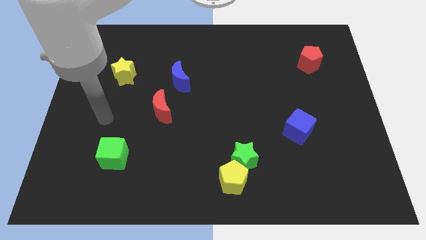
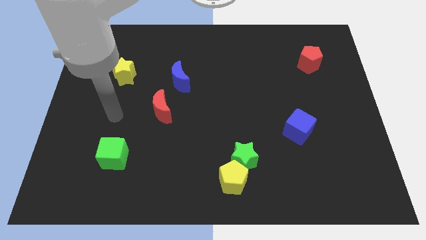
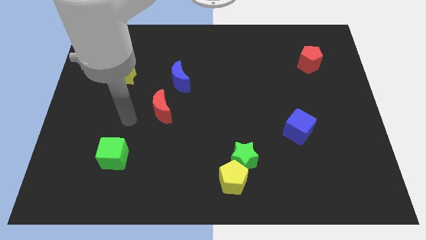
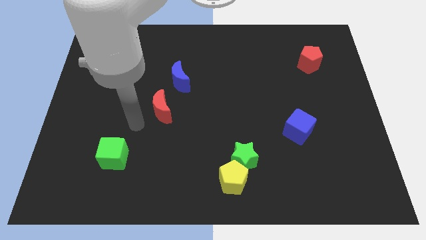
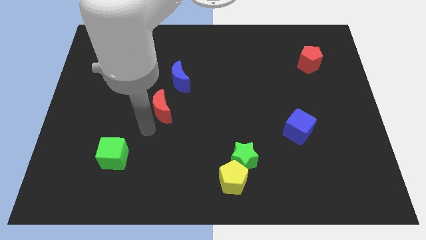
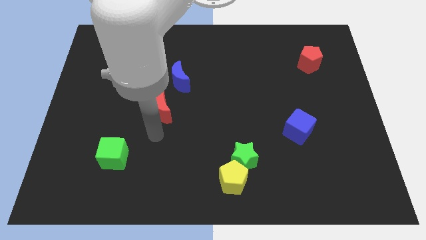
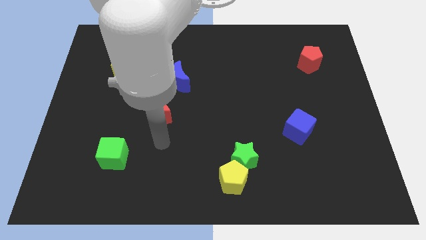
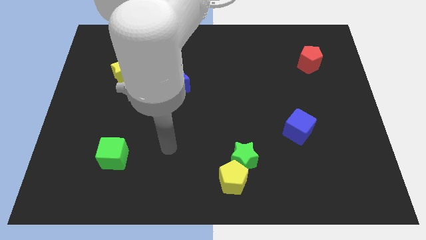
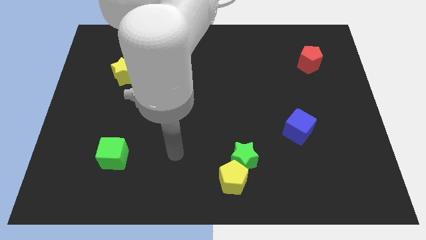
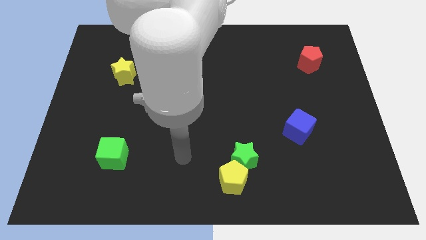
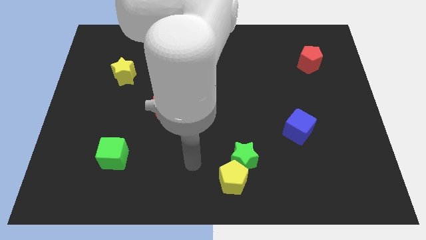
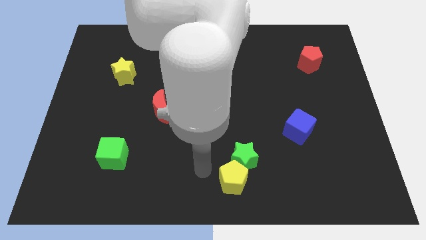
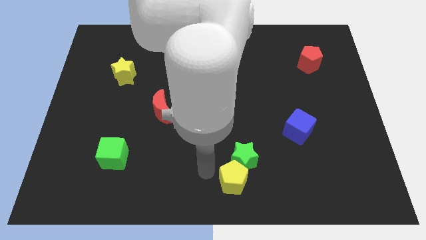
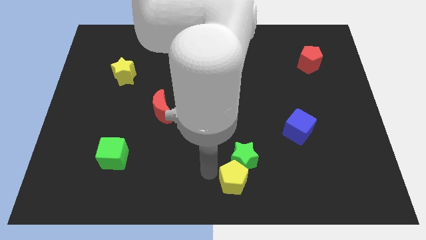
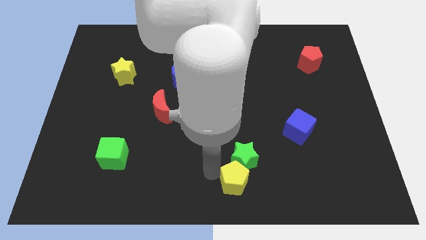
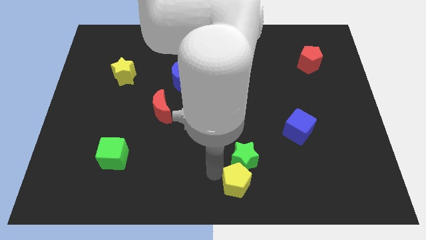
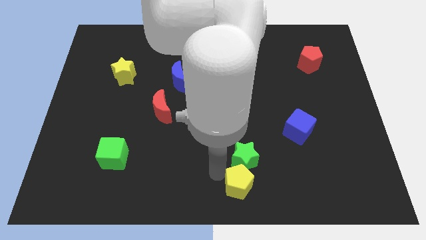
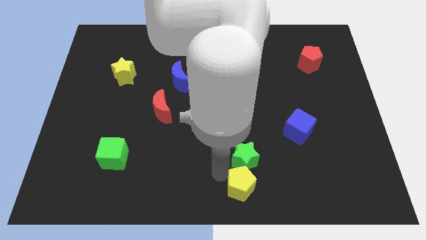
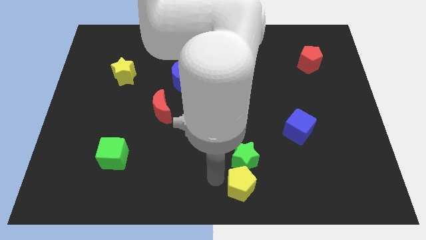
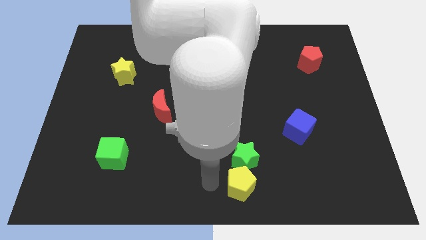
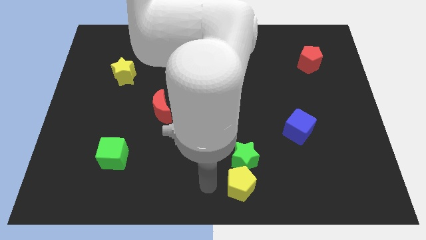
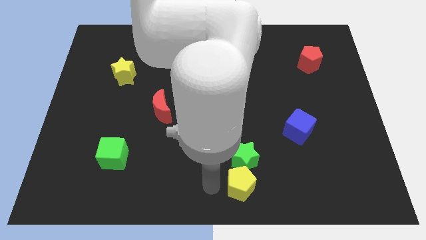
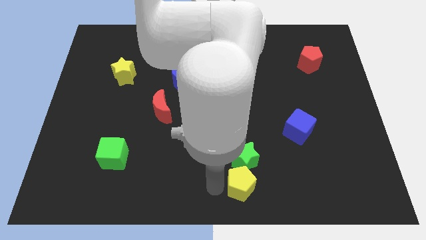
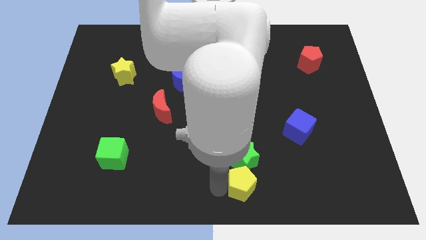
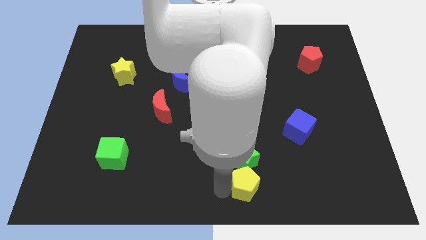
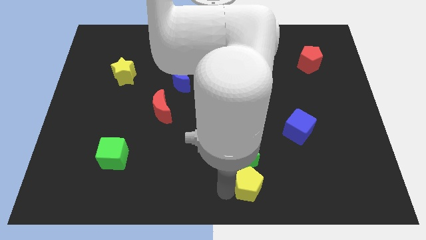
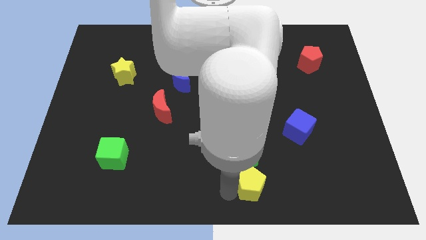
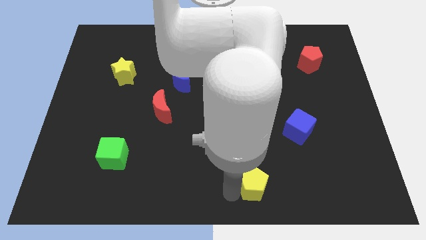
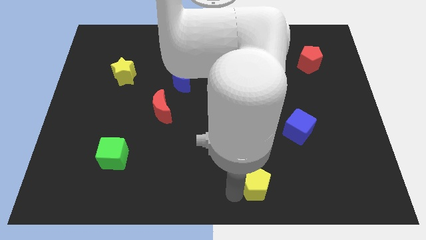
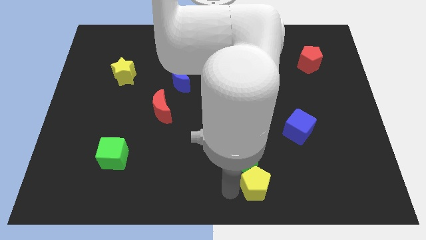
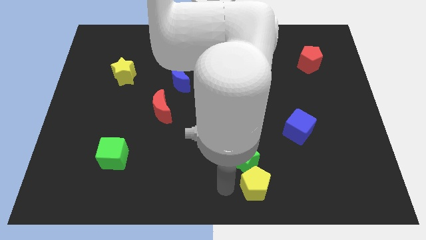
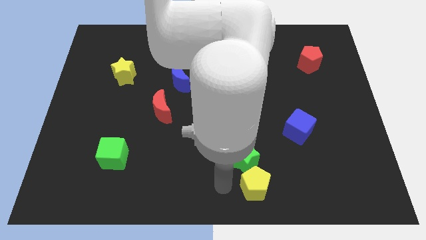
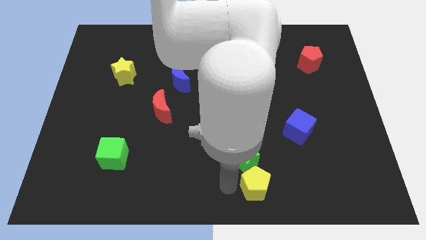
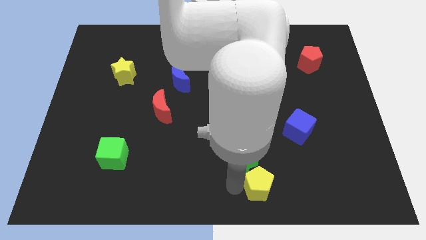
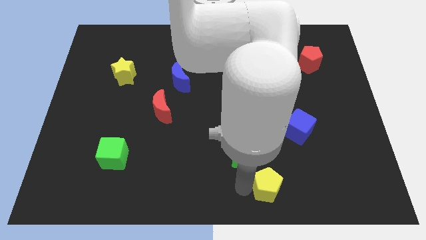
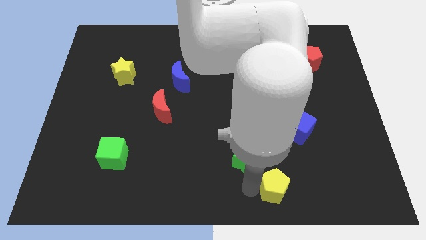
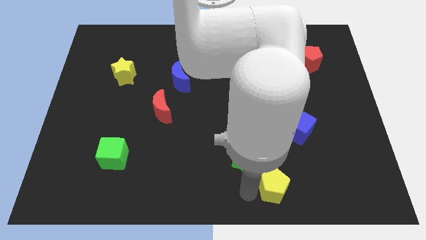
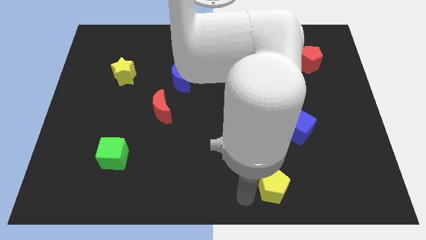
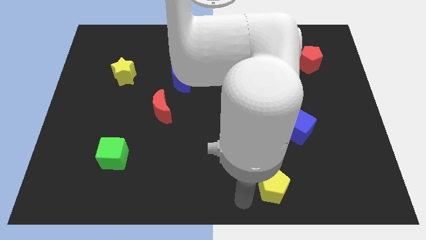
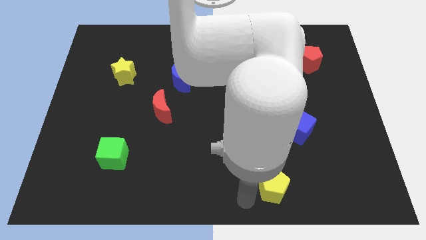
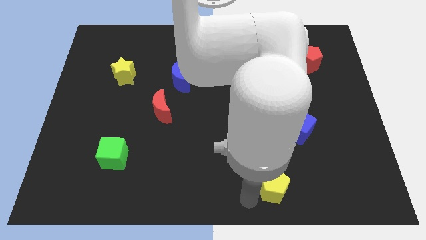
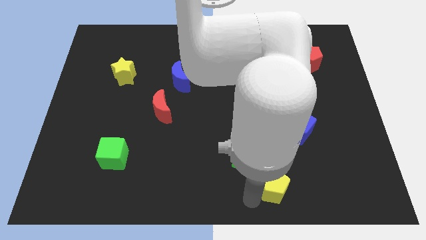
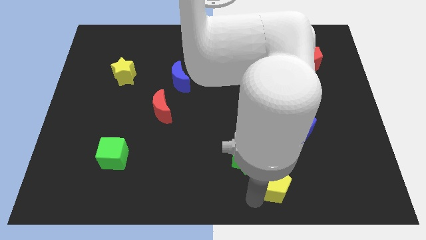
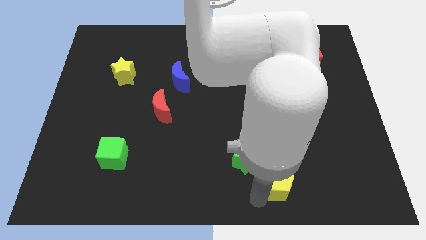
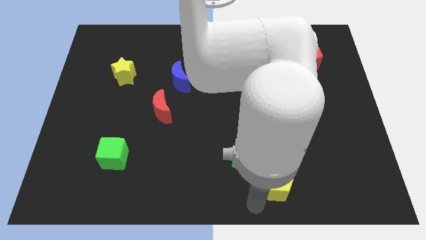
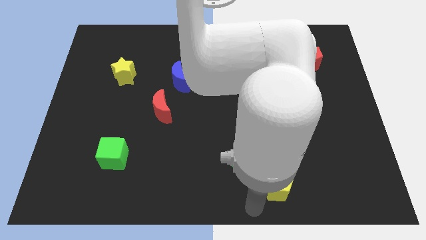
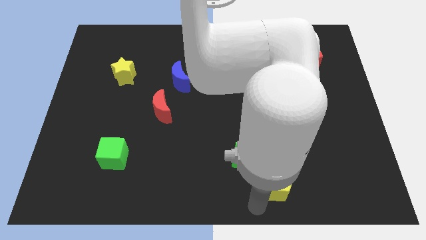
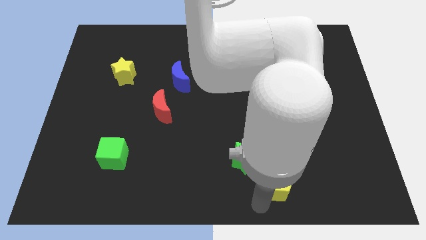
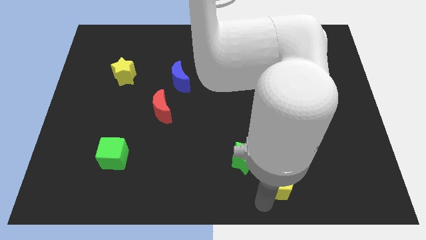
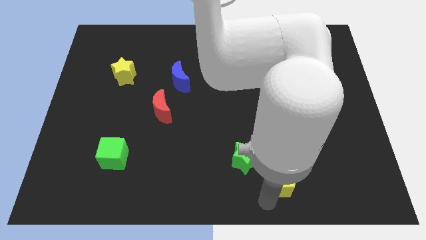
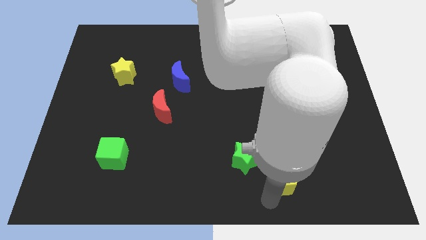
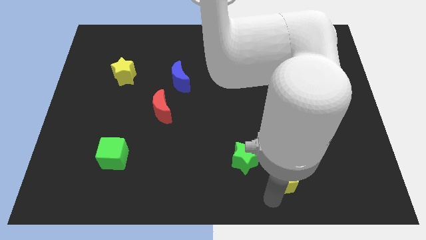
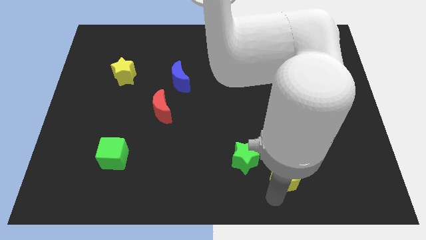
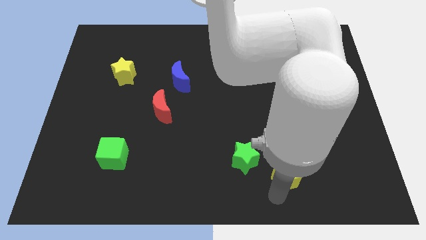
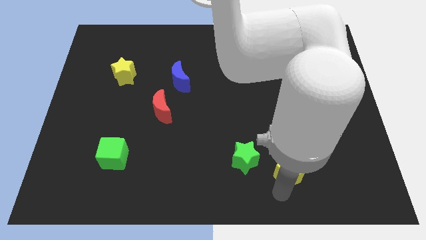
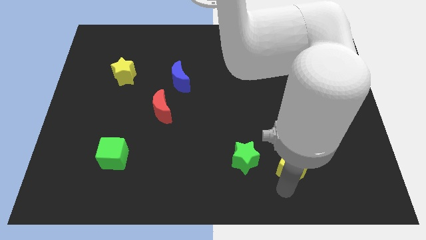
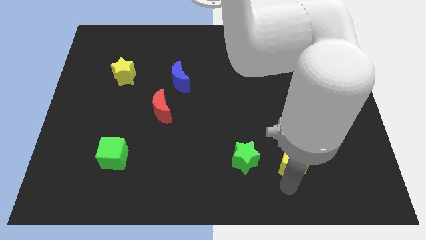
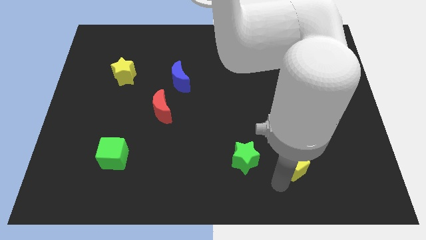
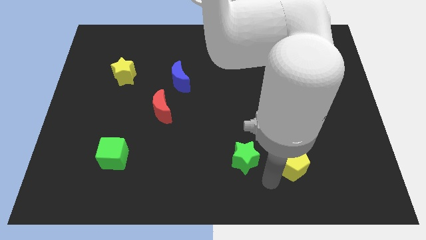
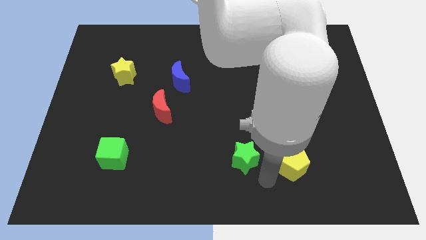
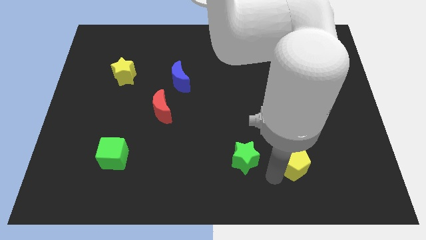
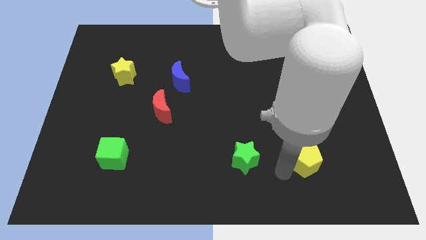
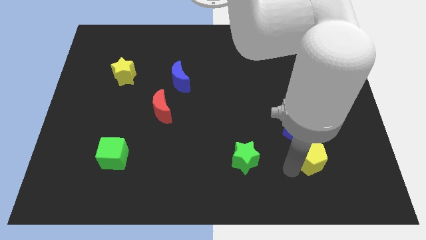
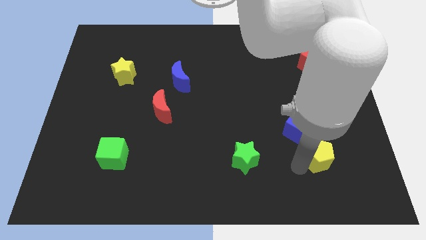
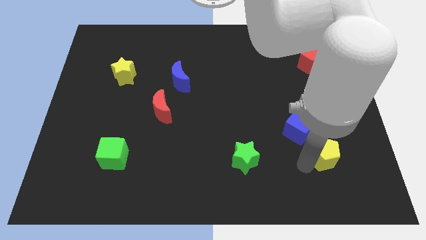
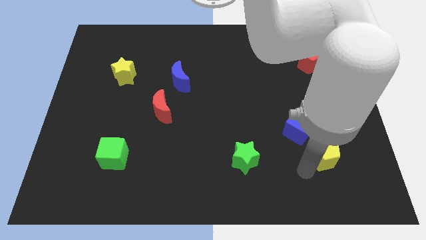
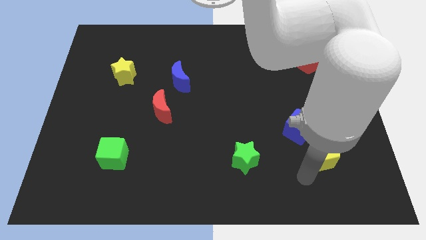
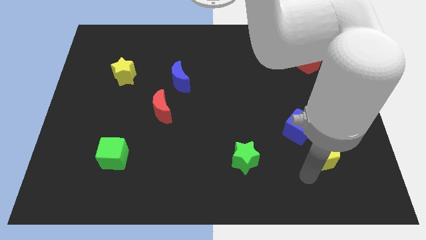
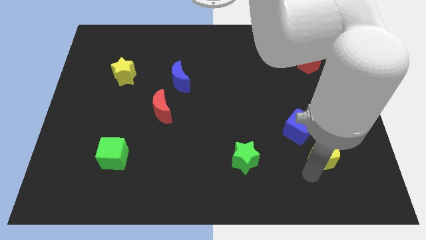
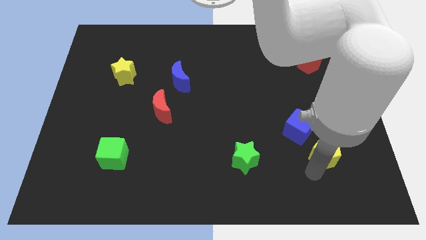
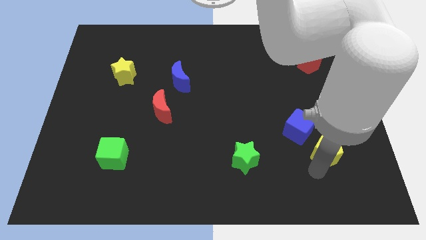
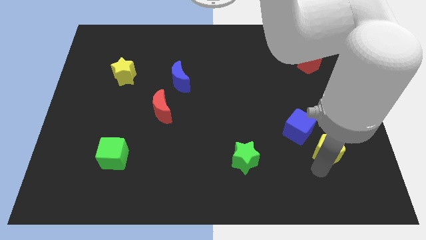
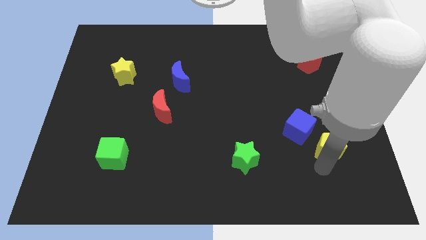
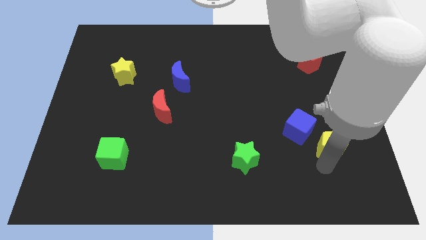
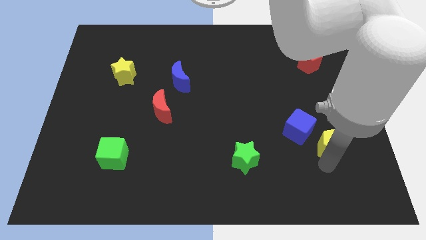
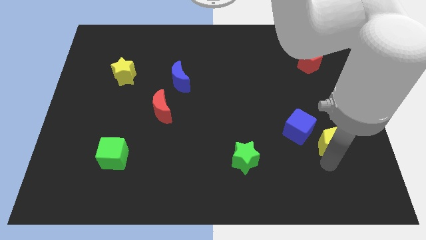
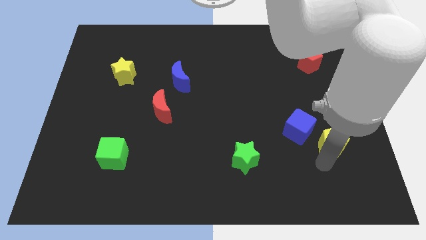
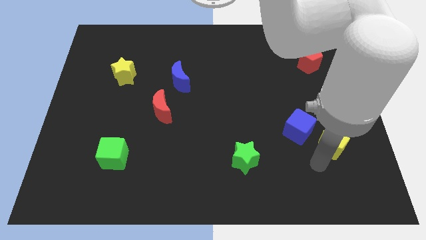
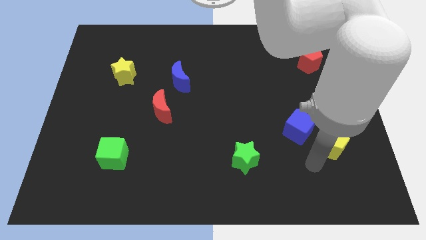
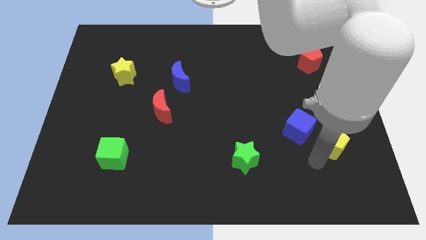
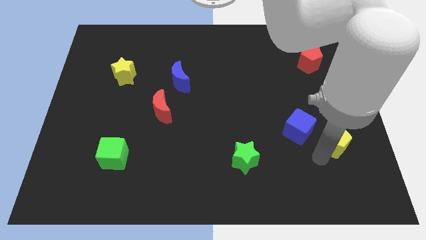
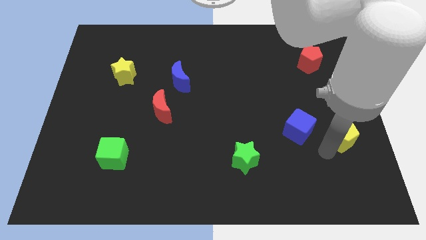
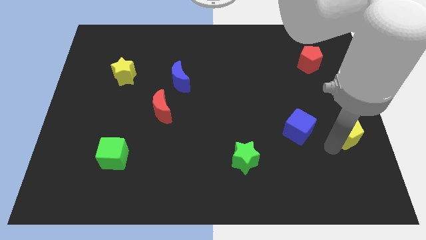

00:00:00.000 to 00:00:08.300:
slide the yellow pentagon to the right side of the board
